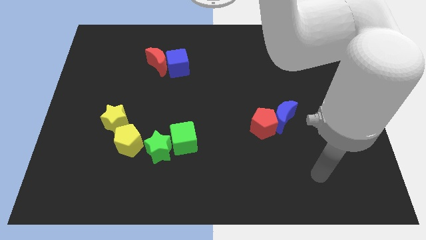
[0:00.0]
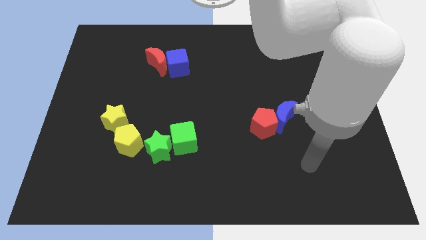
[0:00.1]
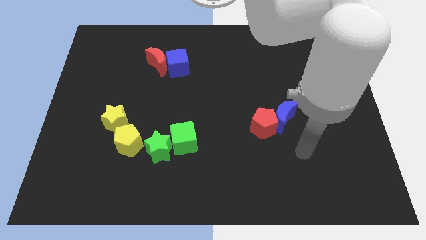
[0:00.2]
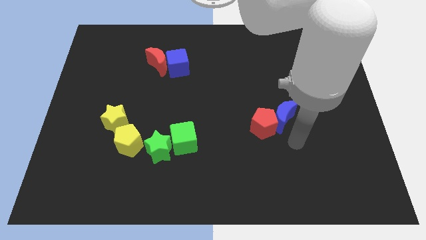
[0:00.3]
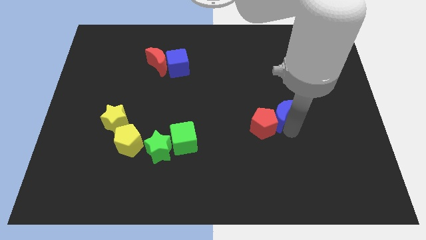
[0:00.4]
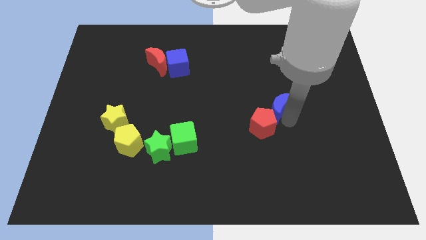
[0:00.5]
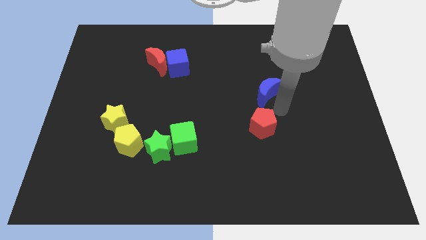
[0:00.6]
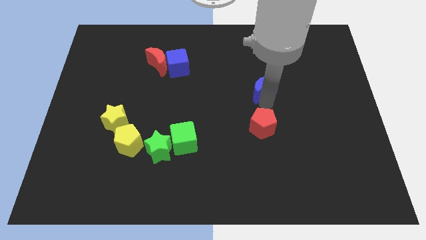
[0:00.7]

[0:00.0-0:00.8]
separate the red pentagon from the blue moon

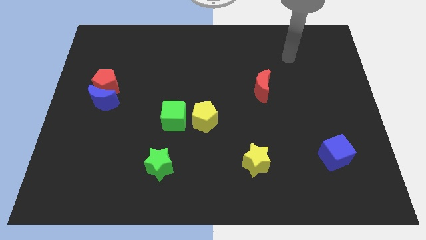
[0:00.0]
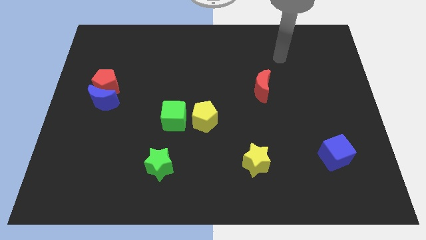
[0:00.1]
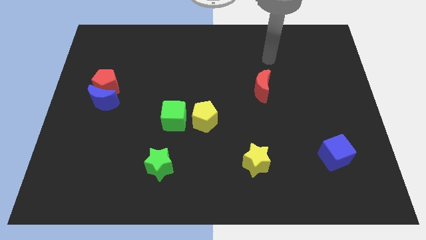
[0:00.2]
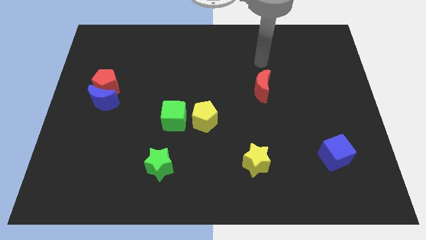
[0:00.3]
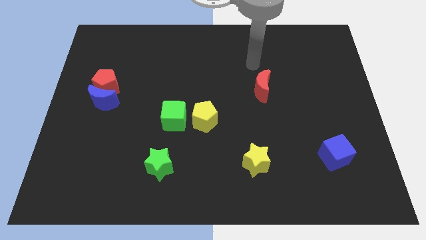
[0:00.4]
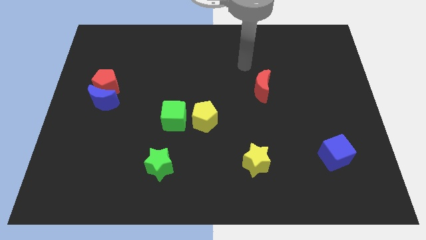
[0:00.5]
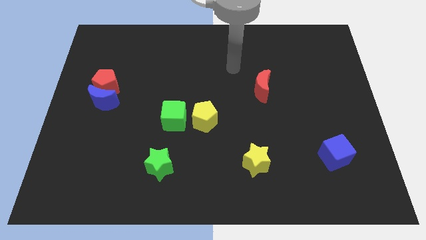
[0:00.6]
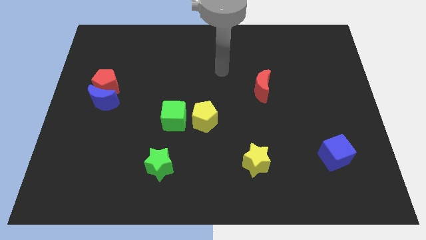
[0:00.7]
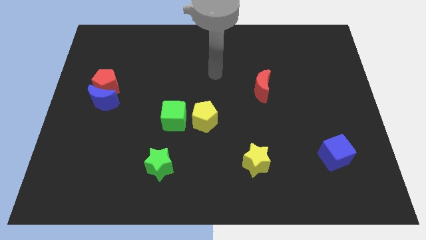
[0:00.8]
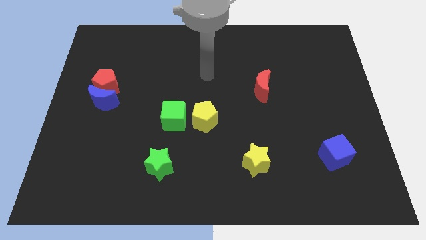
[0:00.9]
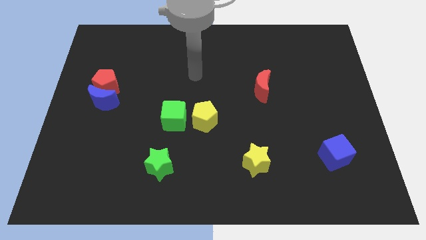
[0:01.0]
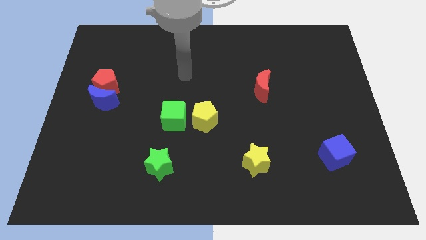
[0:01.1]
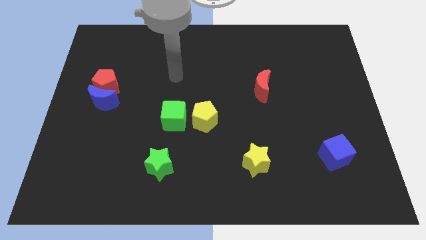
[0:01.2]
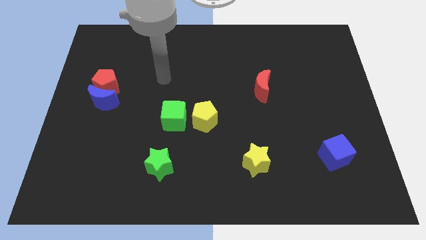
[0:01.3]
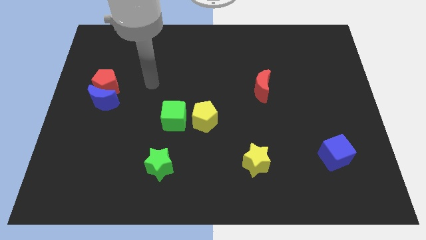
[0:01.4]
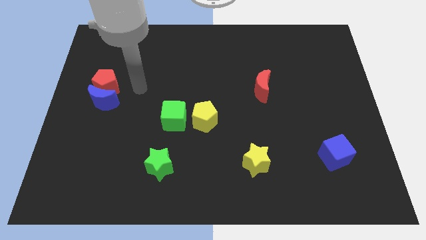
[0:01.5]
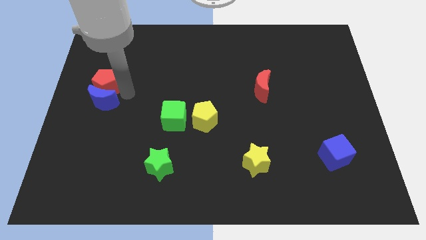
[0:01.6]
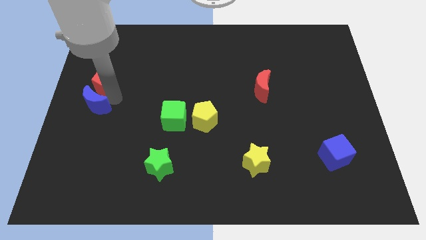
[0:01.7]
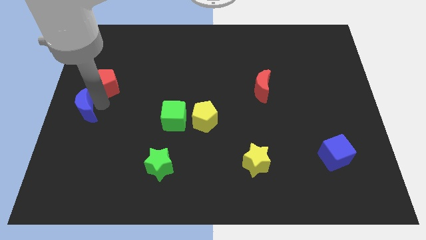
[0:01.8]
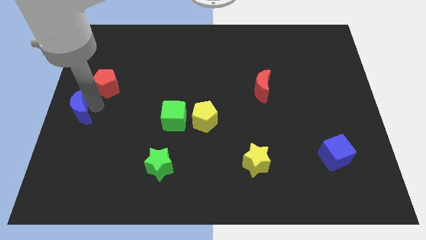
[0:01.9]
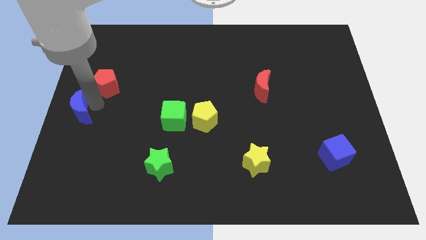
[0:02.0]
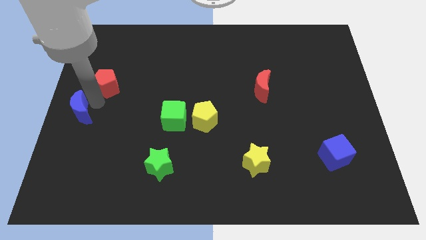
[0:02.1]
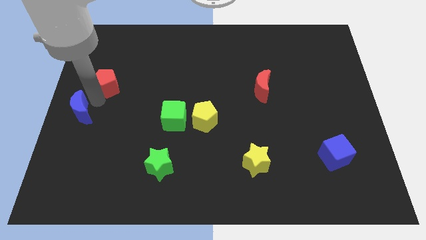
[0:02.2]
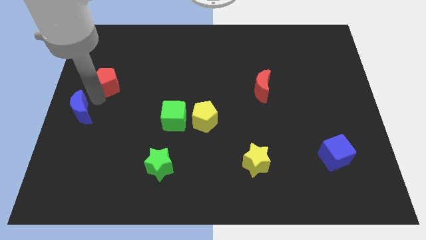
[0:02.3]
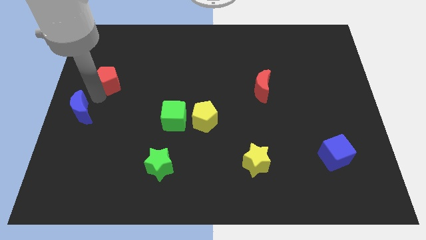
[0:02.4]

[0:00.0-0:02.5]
pull the red pentagon apart from the blue moon

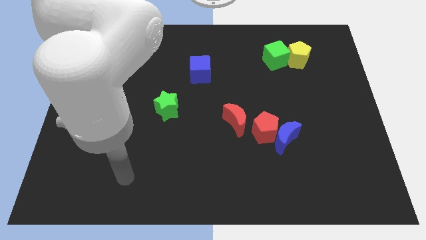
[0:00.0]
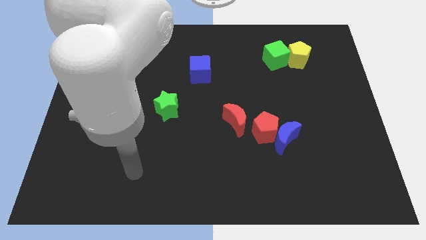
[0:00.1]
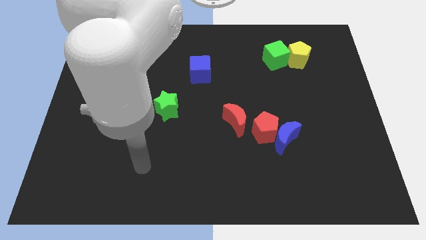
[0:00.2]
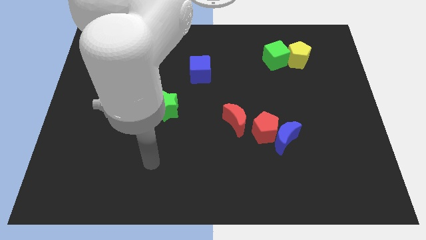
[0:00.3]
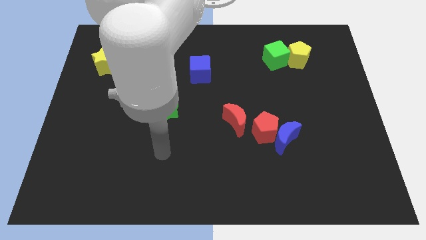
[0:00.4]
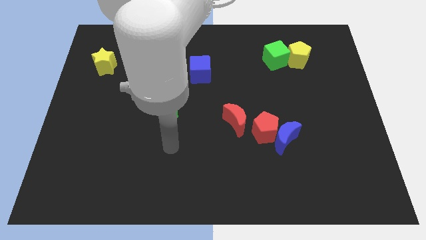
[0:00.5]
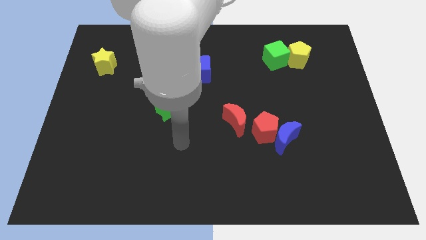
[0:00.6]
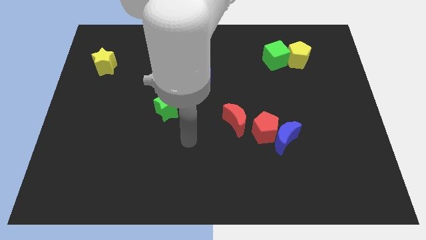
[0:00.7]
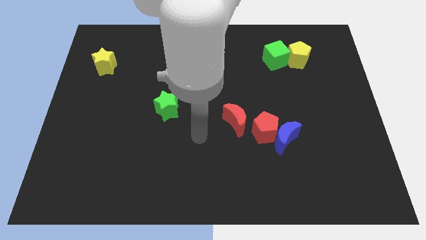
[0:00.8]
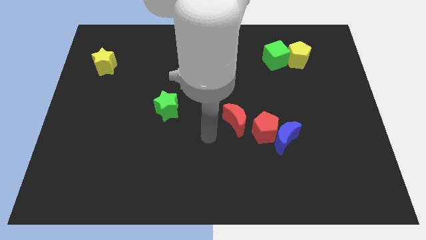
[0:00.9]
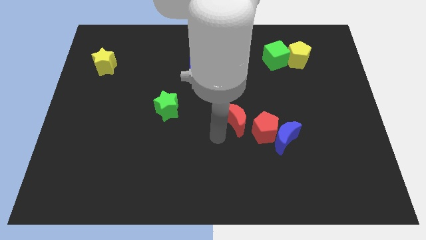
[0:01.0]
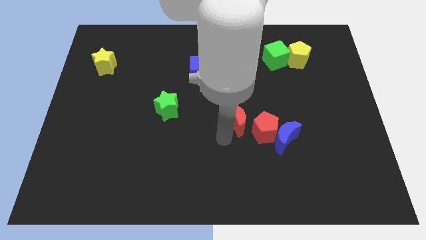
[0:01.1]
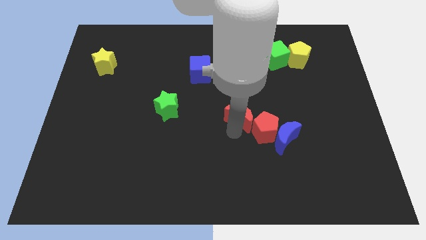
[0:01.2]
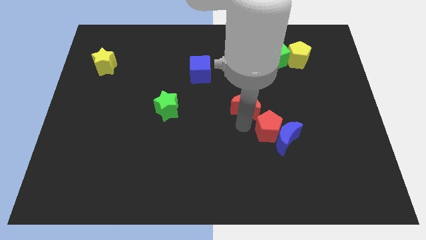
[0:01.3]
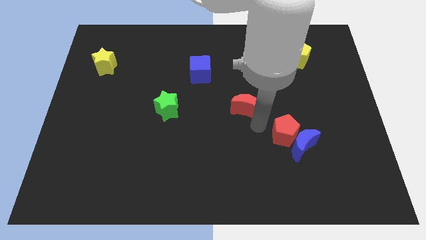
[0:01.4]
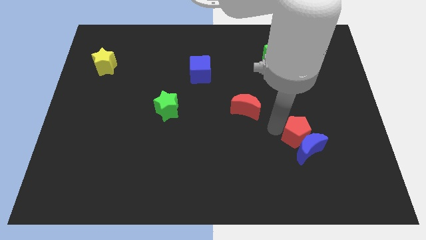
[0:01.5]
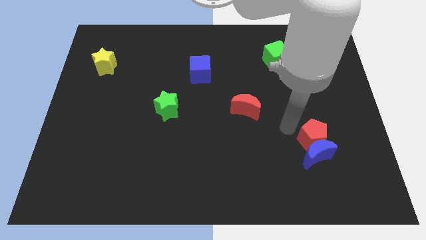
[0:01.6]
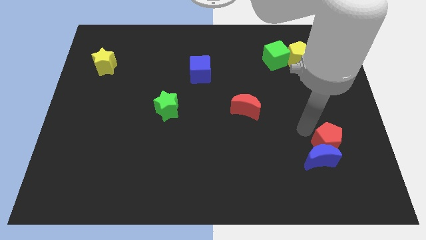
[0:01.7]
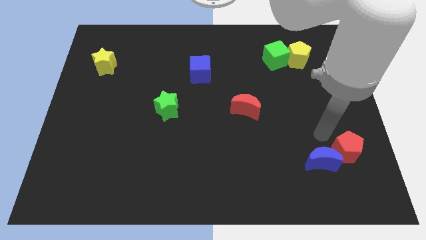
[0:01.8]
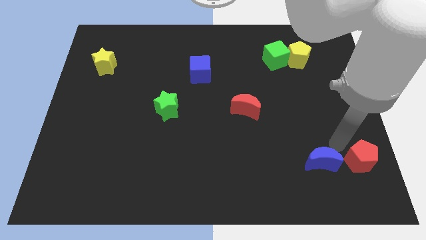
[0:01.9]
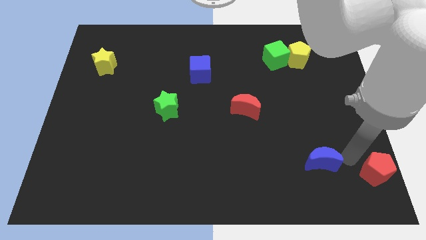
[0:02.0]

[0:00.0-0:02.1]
pull the blue moon apart from the red pentagon

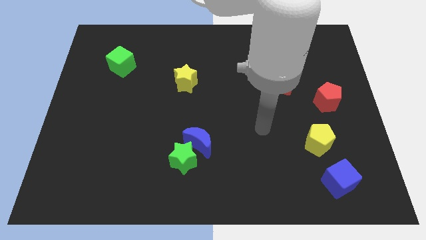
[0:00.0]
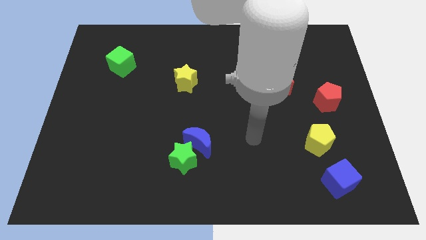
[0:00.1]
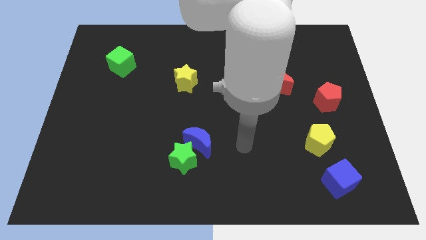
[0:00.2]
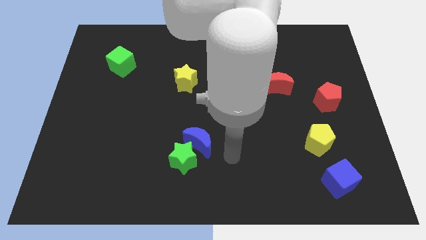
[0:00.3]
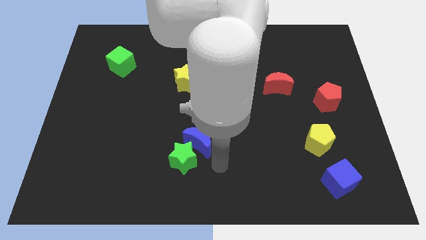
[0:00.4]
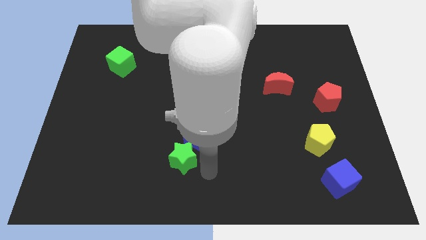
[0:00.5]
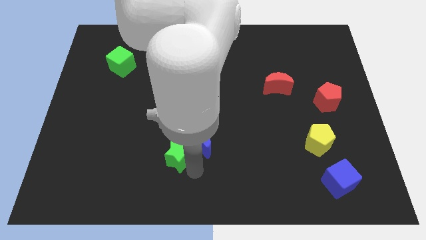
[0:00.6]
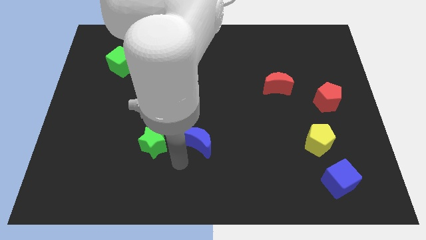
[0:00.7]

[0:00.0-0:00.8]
separate the blue moon from the green star

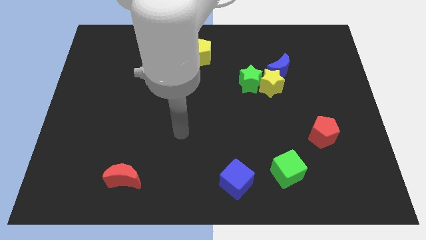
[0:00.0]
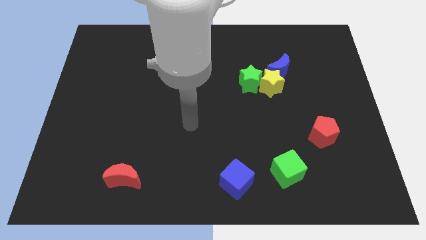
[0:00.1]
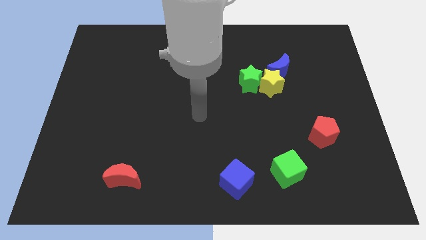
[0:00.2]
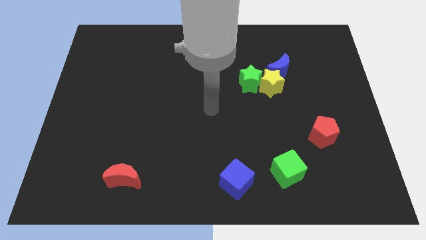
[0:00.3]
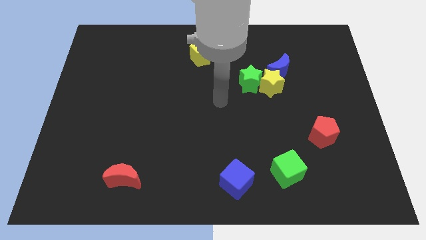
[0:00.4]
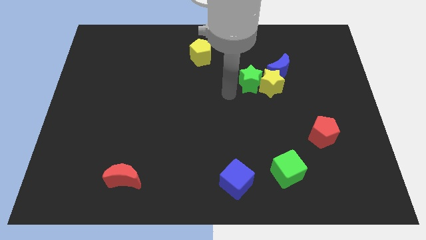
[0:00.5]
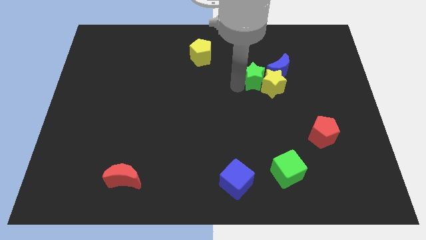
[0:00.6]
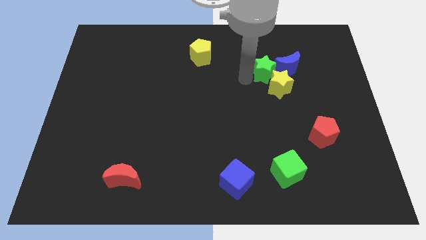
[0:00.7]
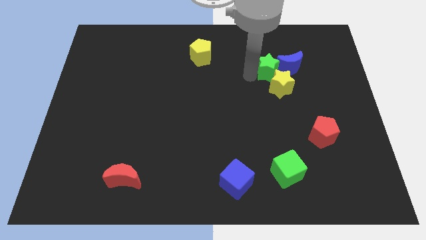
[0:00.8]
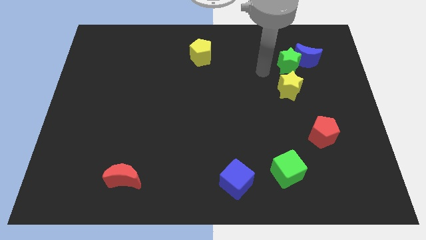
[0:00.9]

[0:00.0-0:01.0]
separate the yellow star from the blue moon and green star

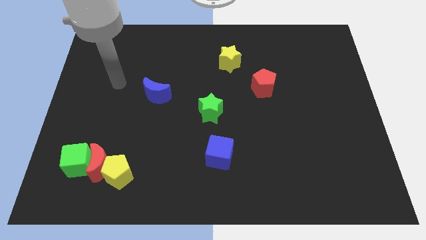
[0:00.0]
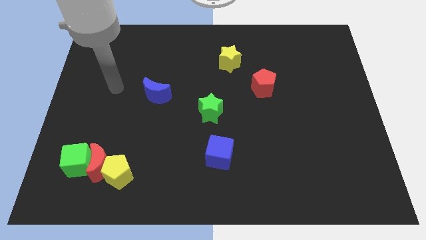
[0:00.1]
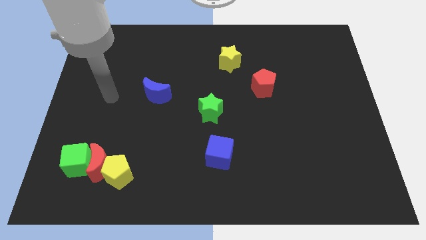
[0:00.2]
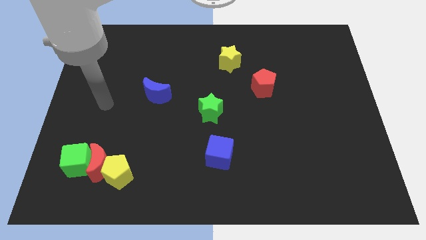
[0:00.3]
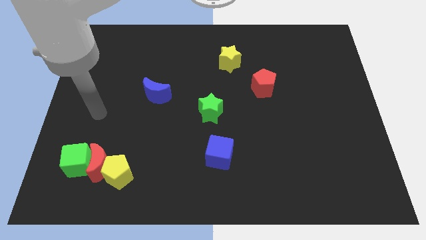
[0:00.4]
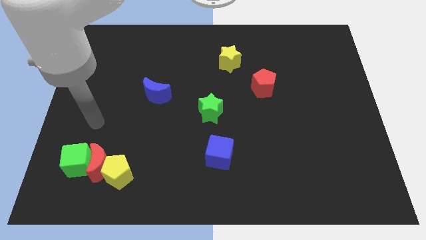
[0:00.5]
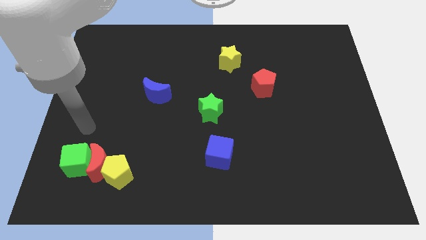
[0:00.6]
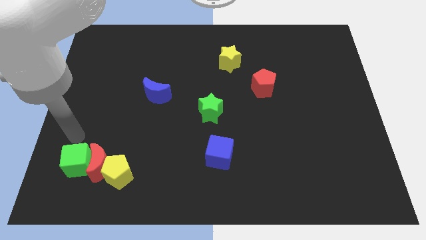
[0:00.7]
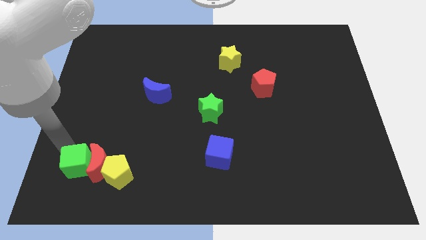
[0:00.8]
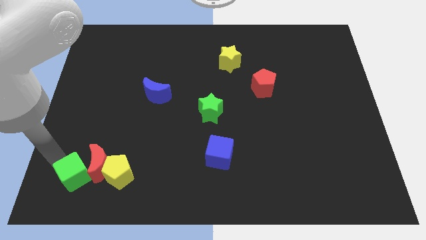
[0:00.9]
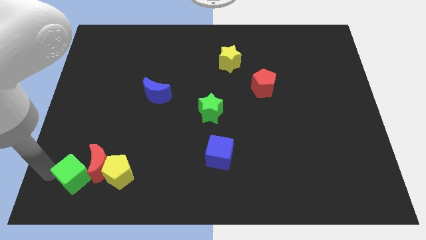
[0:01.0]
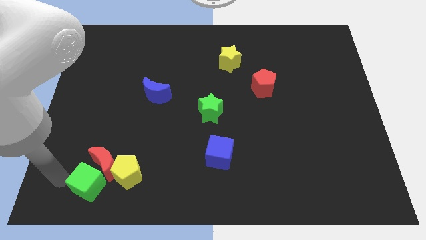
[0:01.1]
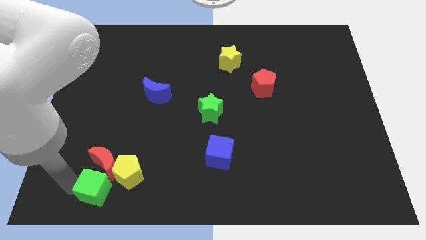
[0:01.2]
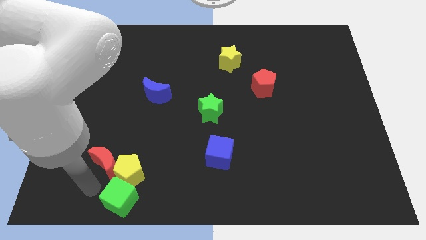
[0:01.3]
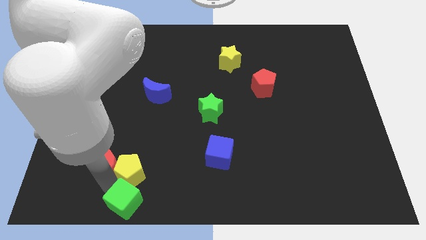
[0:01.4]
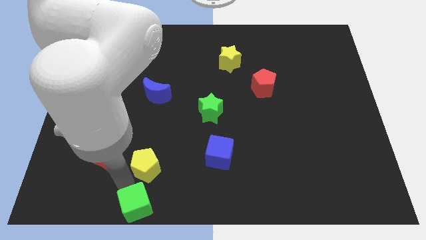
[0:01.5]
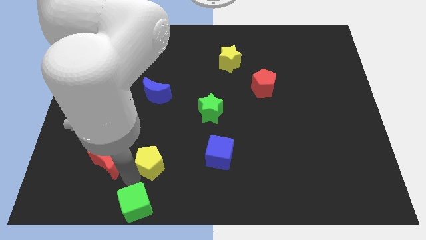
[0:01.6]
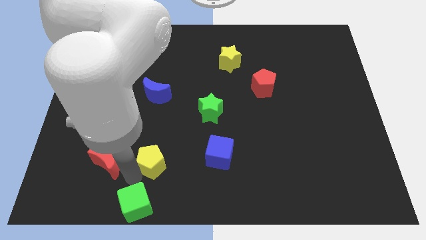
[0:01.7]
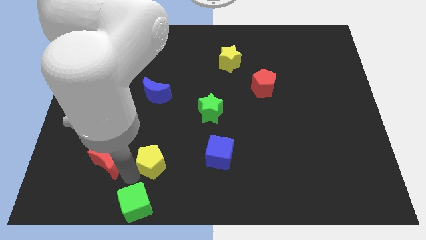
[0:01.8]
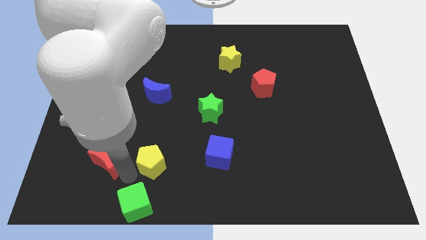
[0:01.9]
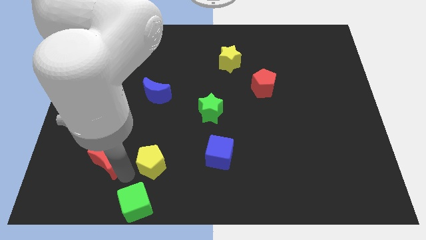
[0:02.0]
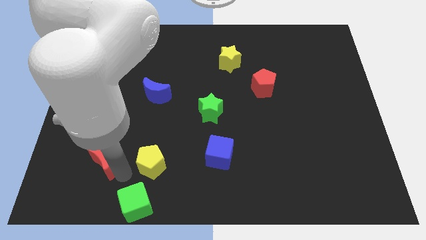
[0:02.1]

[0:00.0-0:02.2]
separate the red moon from the yellow pentagon and green cube
